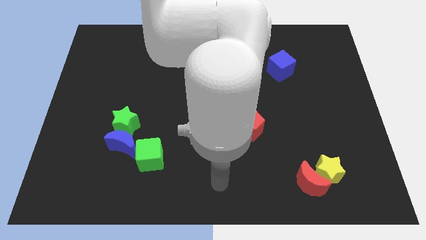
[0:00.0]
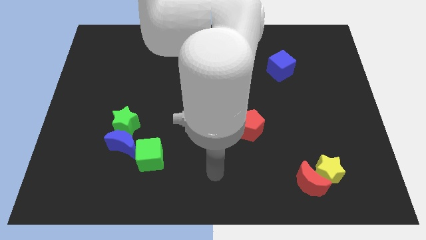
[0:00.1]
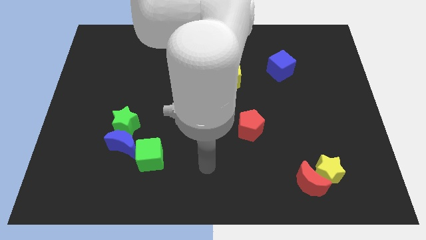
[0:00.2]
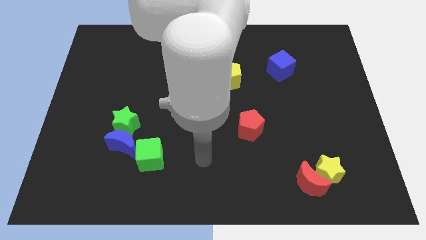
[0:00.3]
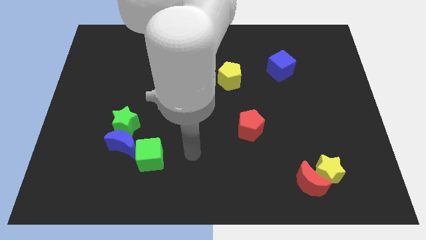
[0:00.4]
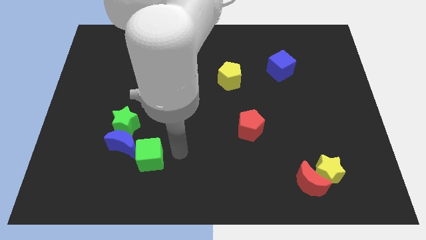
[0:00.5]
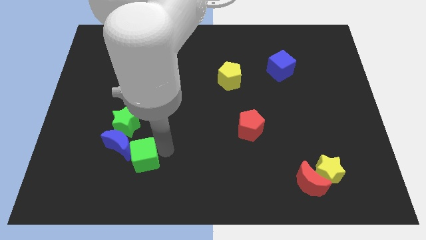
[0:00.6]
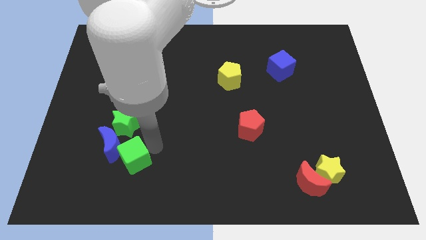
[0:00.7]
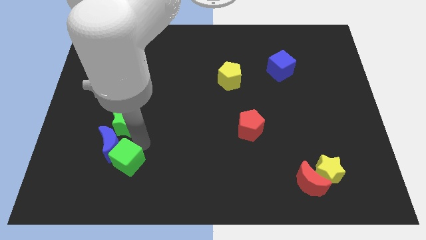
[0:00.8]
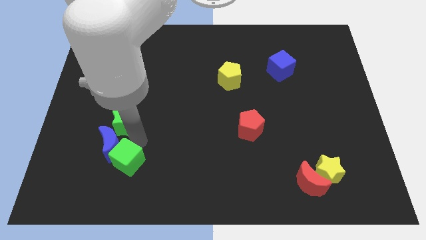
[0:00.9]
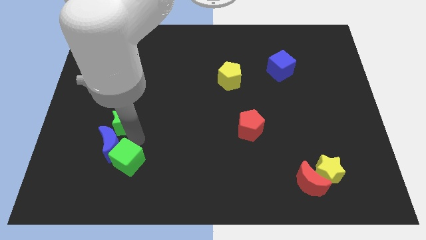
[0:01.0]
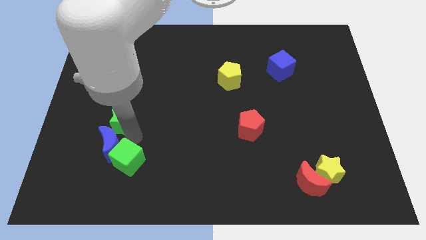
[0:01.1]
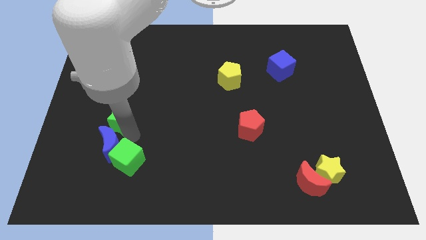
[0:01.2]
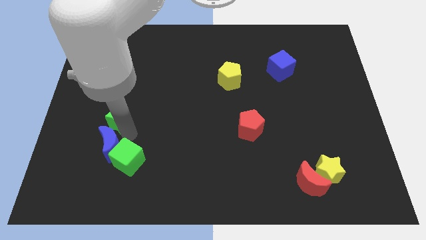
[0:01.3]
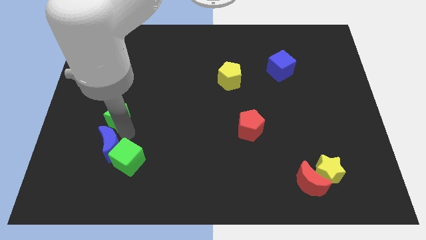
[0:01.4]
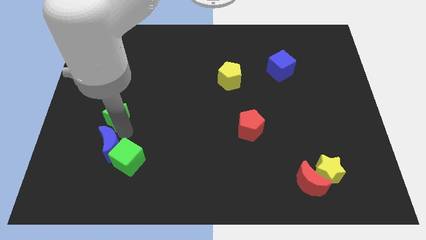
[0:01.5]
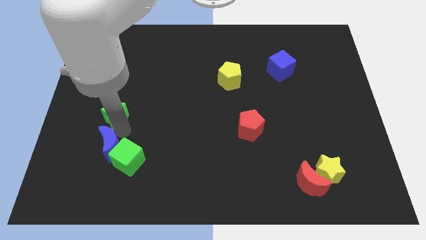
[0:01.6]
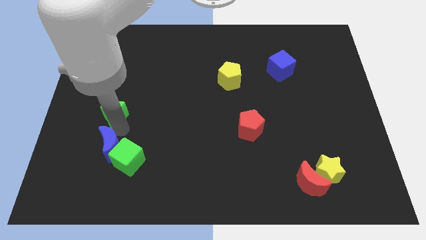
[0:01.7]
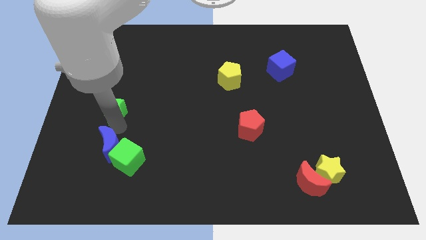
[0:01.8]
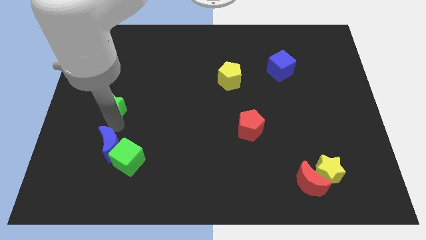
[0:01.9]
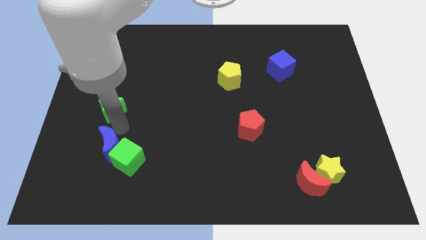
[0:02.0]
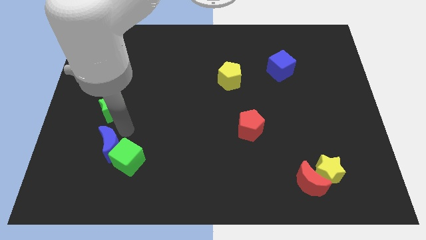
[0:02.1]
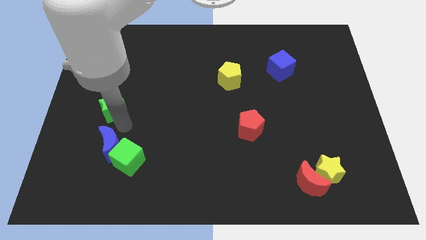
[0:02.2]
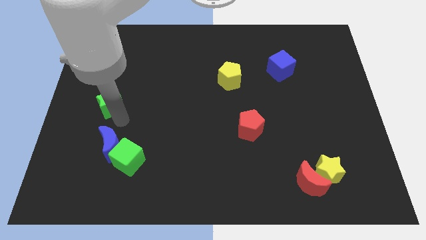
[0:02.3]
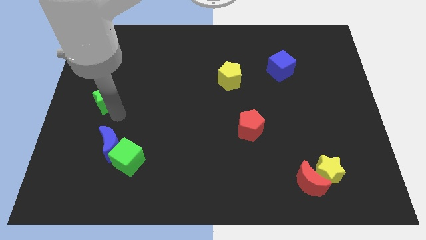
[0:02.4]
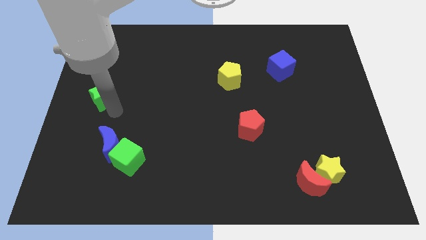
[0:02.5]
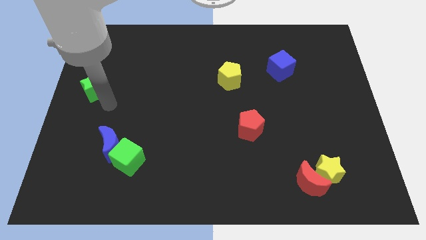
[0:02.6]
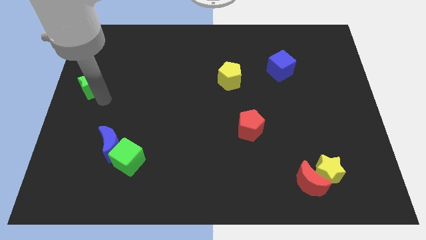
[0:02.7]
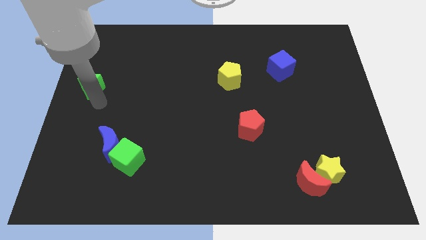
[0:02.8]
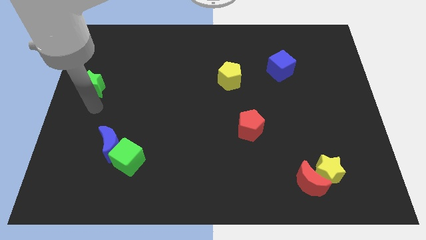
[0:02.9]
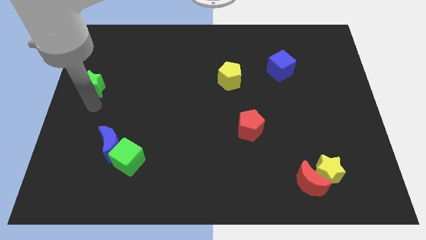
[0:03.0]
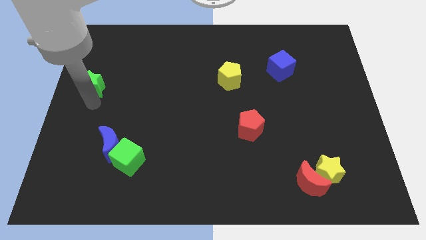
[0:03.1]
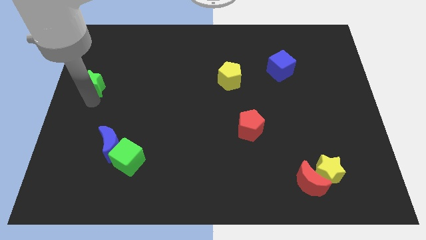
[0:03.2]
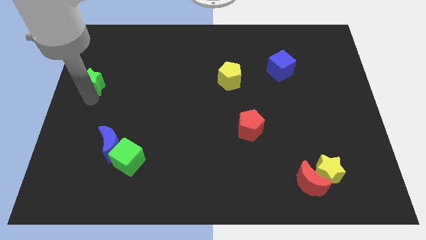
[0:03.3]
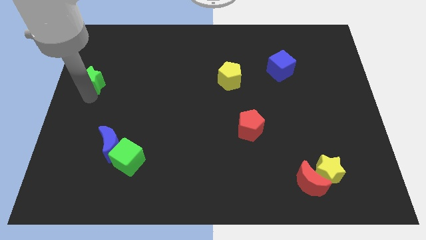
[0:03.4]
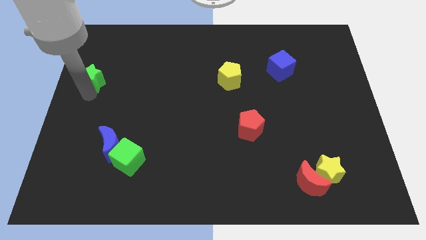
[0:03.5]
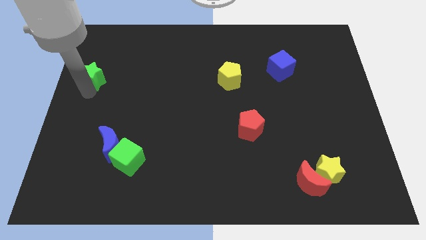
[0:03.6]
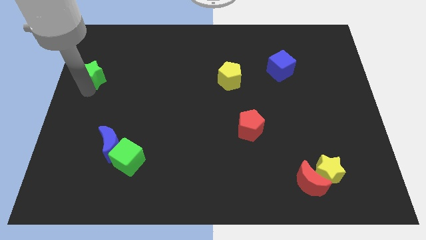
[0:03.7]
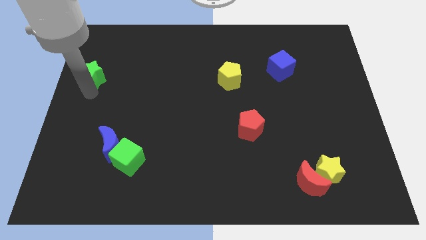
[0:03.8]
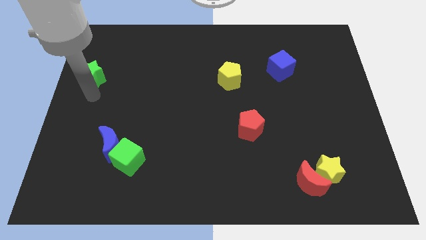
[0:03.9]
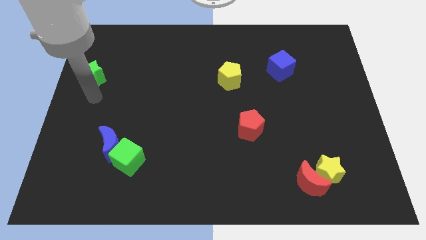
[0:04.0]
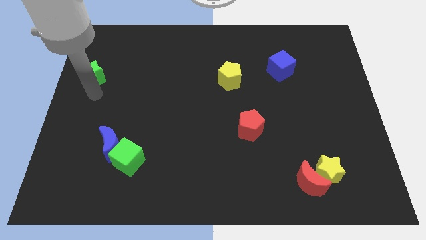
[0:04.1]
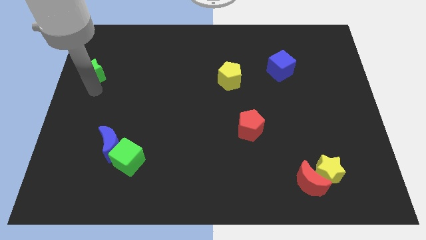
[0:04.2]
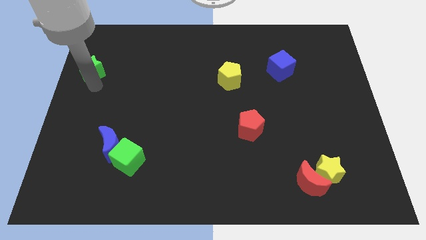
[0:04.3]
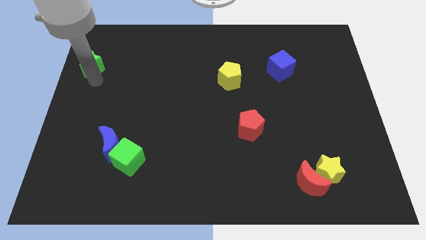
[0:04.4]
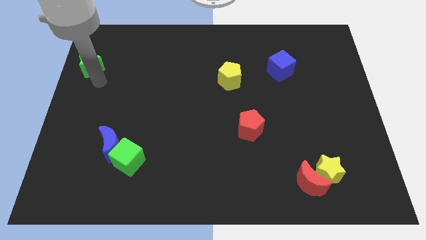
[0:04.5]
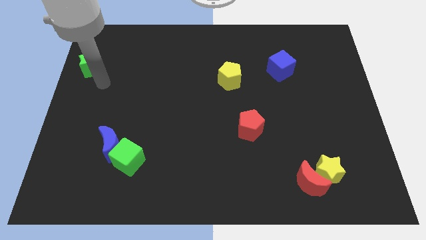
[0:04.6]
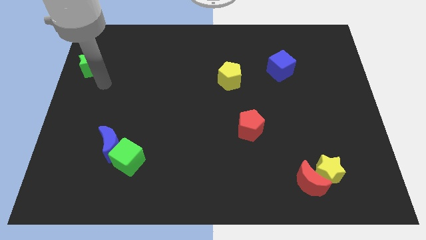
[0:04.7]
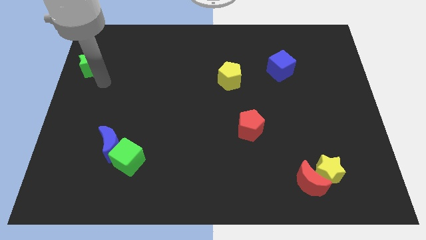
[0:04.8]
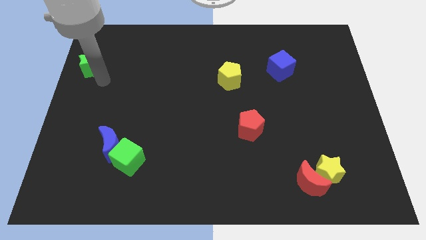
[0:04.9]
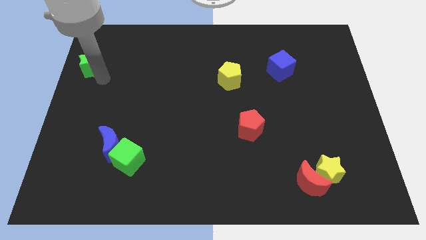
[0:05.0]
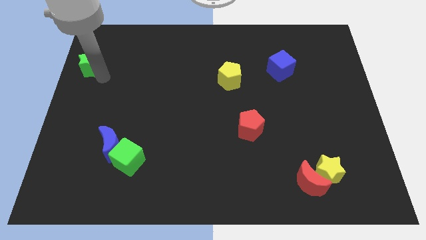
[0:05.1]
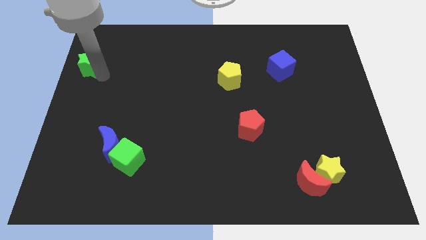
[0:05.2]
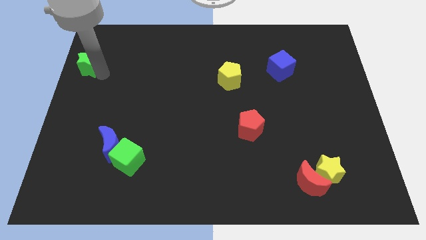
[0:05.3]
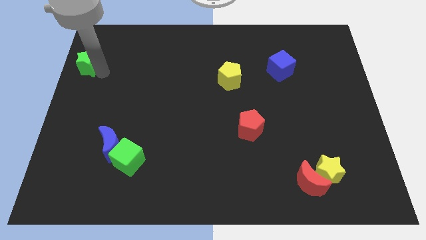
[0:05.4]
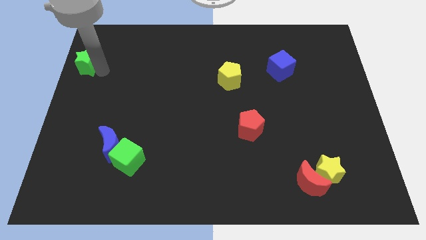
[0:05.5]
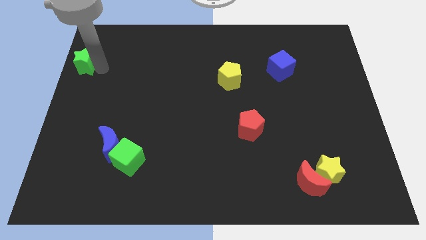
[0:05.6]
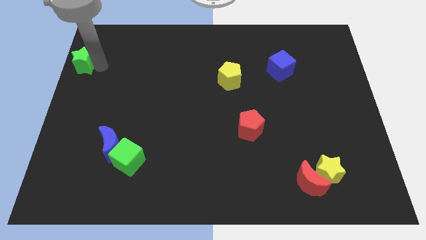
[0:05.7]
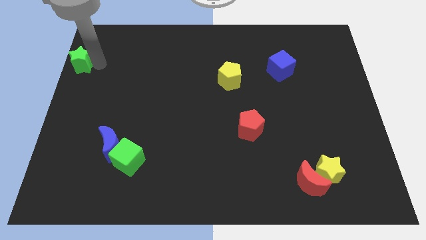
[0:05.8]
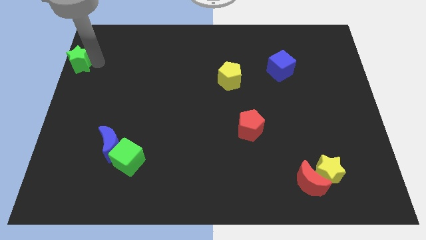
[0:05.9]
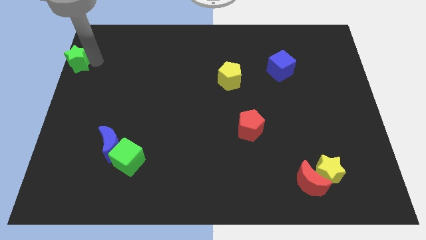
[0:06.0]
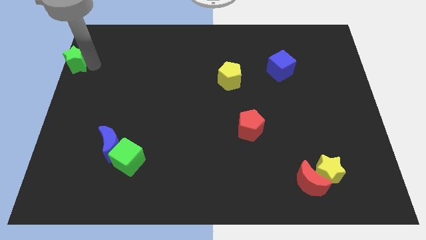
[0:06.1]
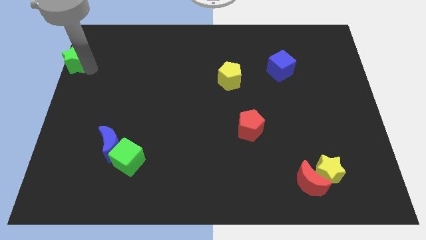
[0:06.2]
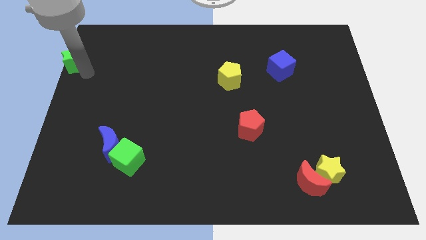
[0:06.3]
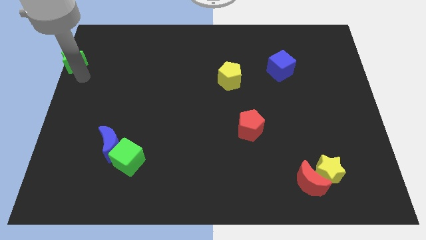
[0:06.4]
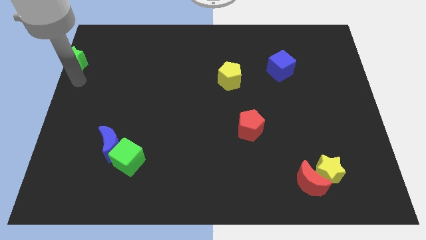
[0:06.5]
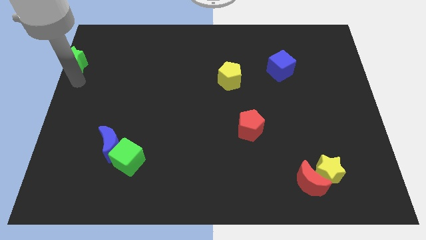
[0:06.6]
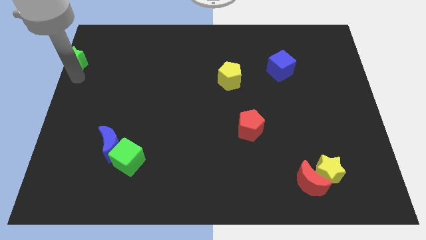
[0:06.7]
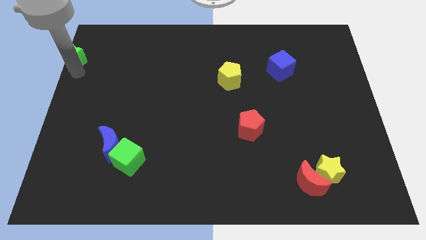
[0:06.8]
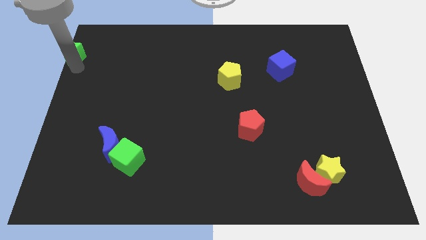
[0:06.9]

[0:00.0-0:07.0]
put the green star to the upper left corner

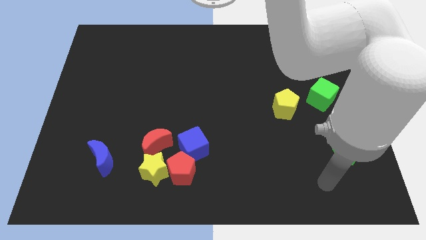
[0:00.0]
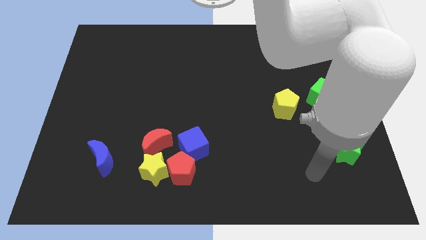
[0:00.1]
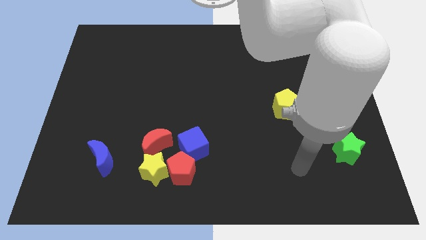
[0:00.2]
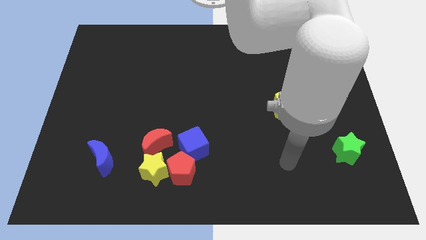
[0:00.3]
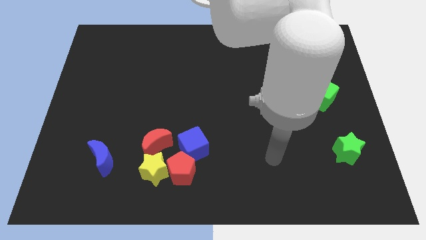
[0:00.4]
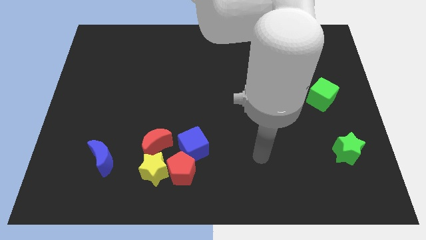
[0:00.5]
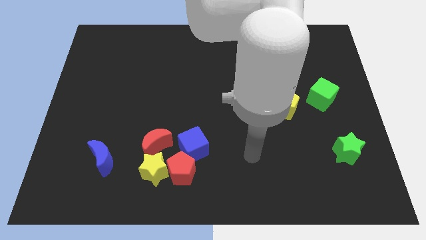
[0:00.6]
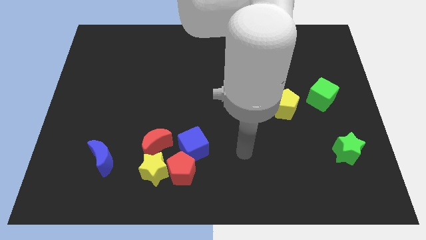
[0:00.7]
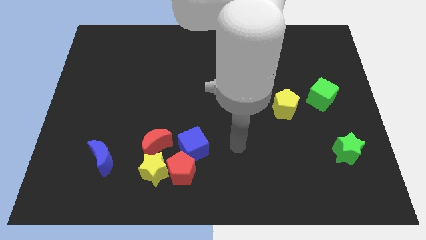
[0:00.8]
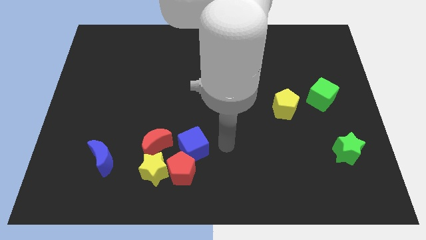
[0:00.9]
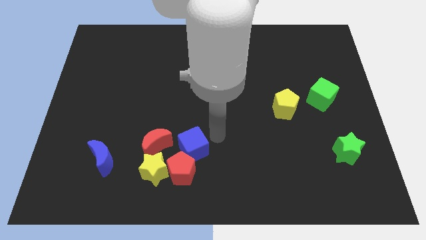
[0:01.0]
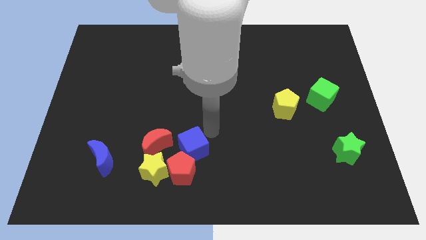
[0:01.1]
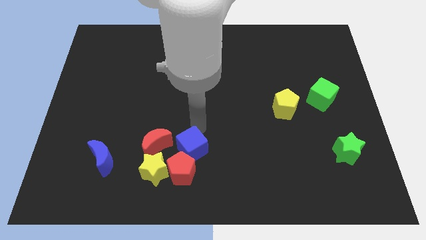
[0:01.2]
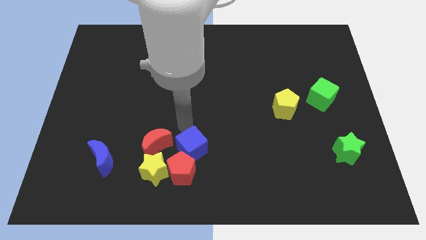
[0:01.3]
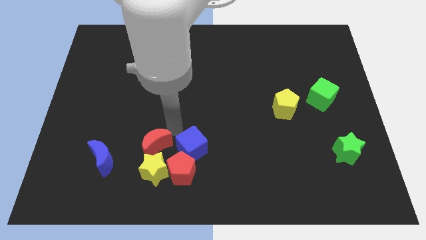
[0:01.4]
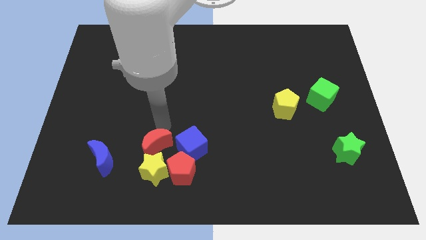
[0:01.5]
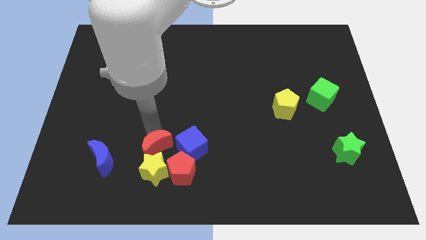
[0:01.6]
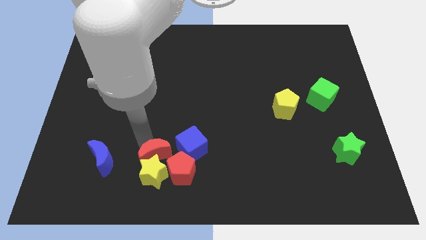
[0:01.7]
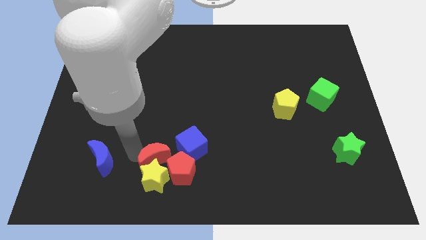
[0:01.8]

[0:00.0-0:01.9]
push the yellow star to the bottom
